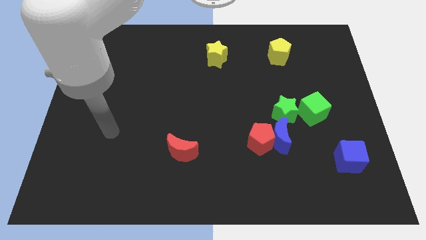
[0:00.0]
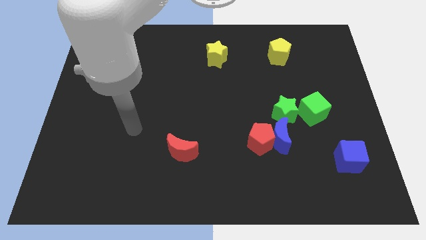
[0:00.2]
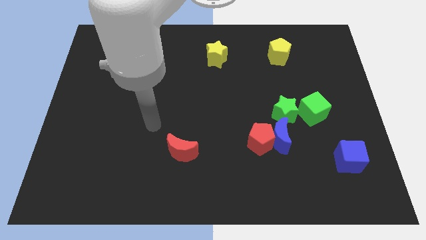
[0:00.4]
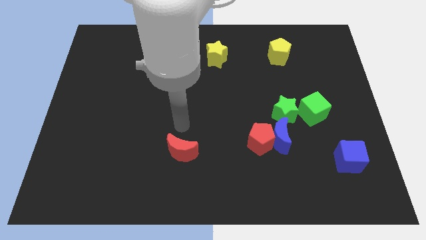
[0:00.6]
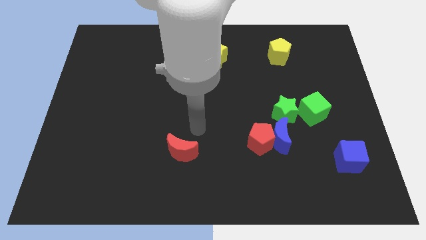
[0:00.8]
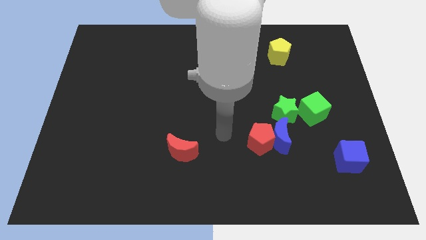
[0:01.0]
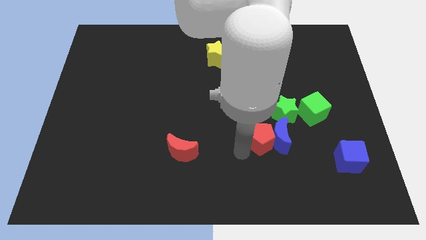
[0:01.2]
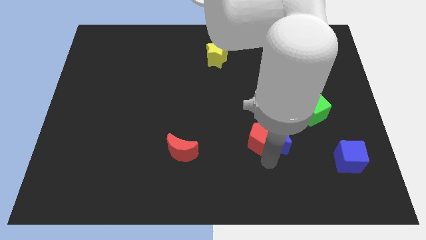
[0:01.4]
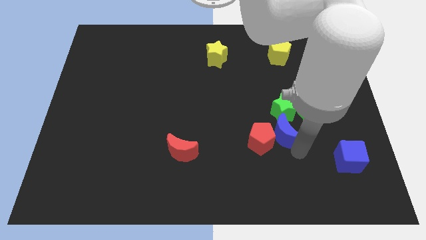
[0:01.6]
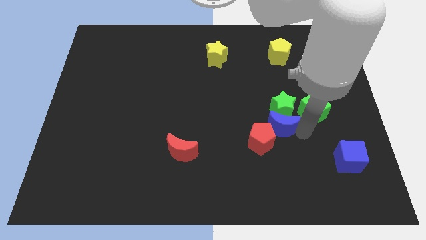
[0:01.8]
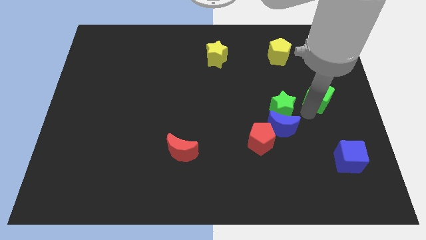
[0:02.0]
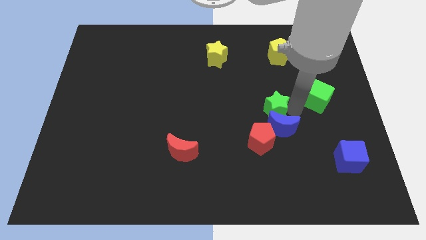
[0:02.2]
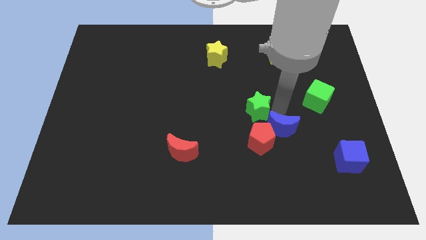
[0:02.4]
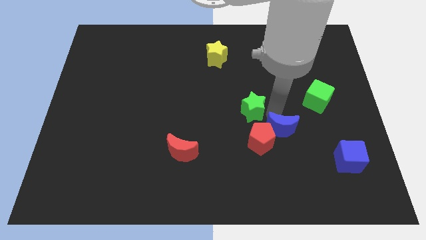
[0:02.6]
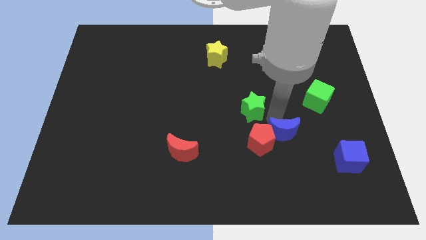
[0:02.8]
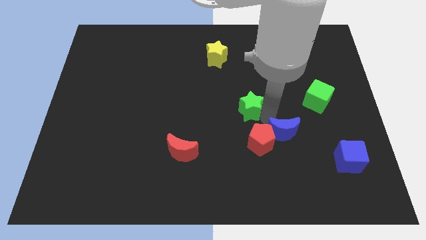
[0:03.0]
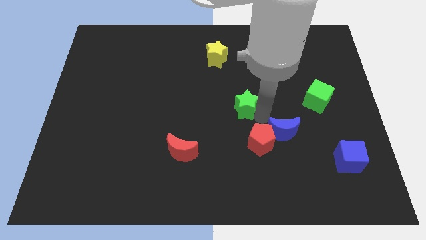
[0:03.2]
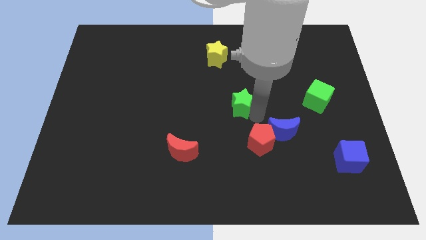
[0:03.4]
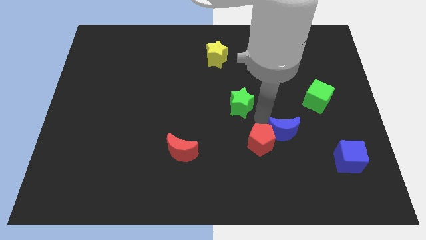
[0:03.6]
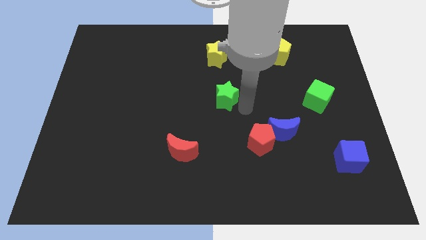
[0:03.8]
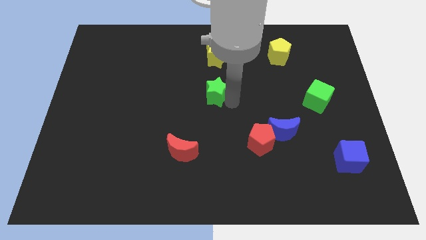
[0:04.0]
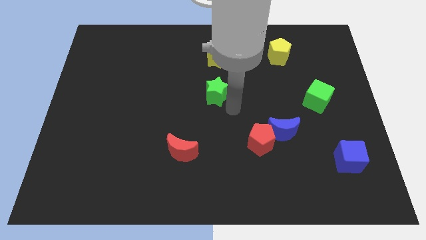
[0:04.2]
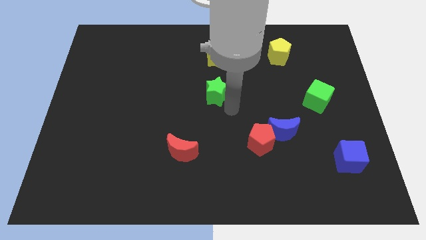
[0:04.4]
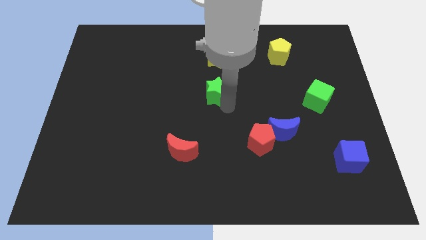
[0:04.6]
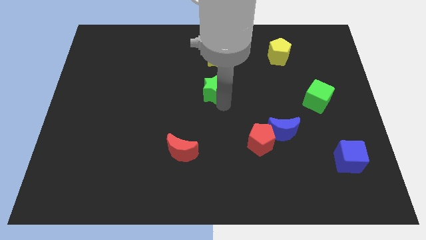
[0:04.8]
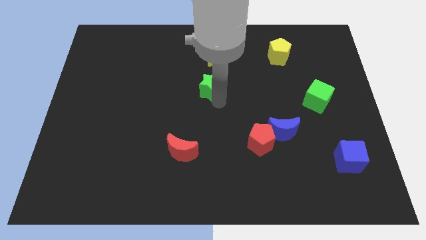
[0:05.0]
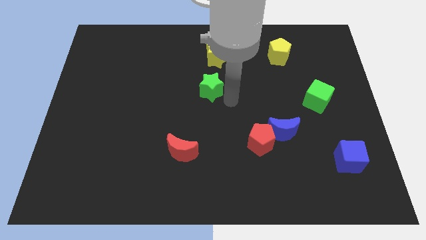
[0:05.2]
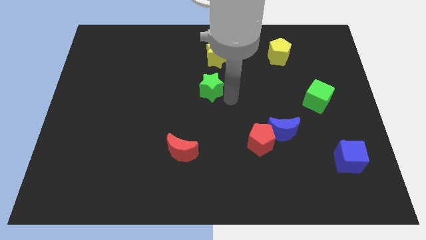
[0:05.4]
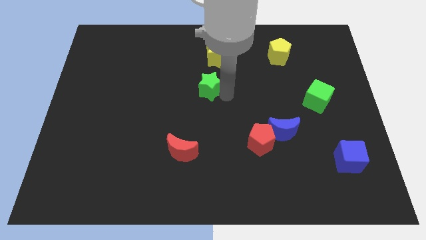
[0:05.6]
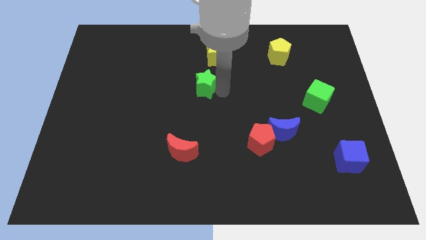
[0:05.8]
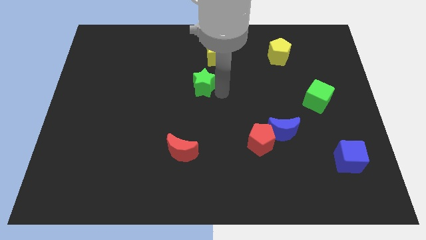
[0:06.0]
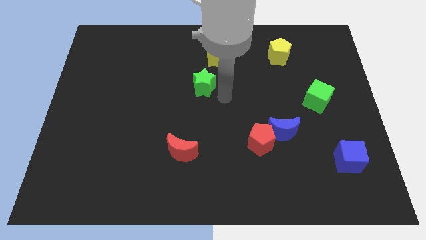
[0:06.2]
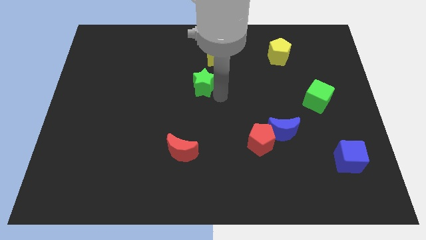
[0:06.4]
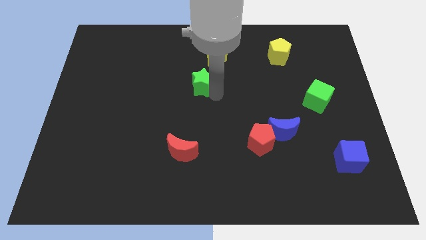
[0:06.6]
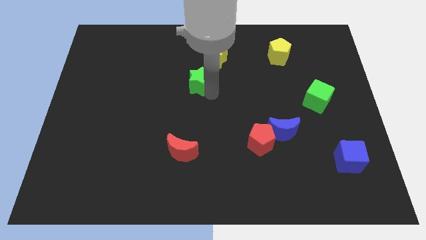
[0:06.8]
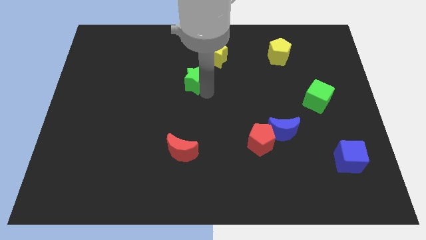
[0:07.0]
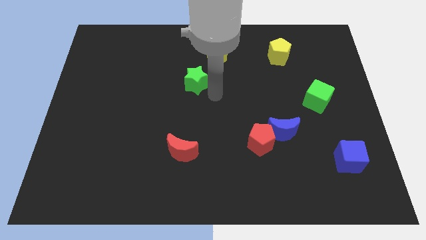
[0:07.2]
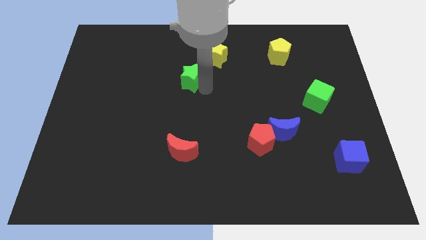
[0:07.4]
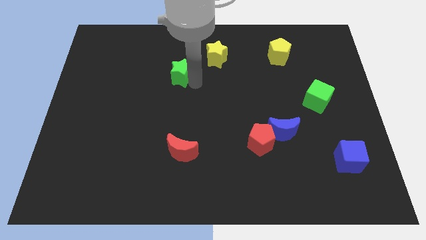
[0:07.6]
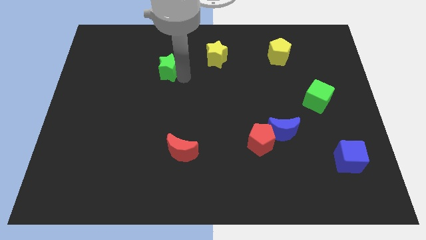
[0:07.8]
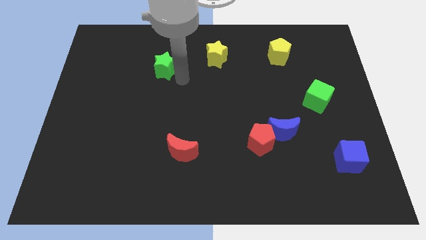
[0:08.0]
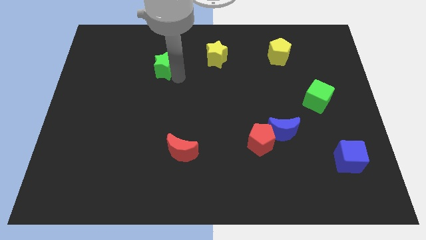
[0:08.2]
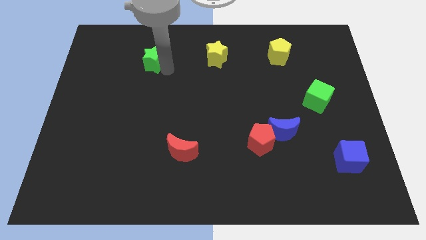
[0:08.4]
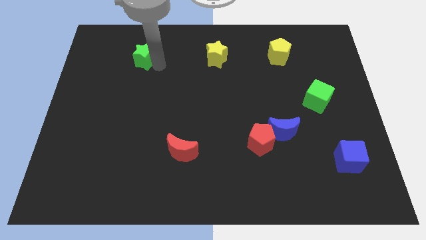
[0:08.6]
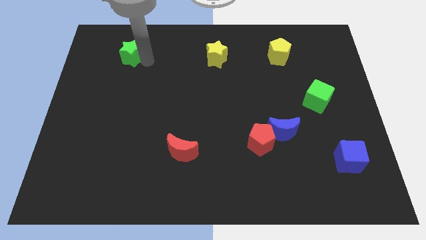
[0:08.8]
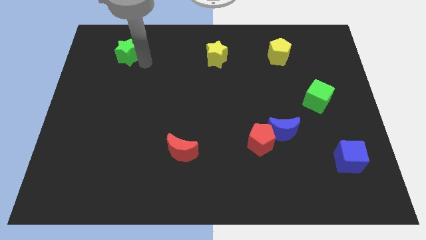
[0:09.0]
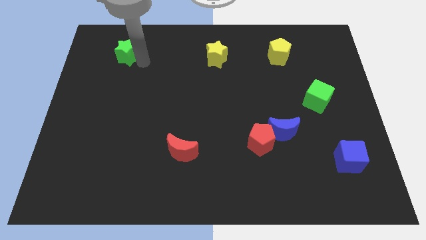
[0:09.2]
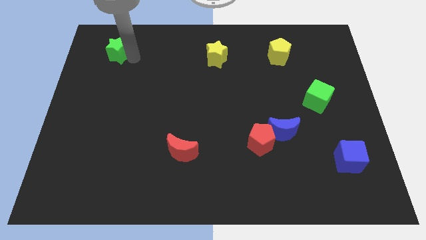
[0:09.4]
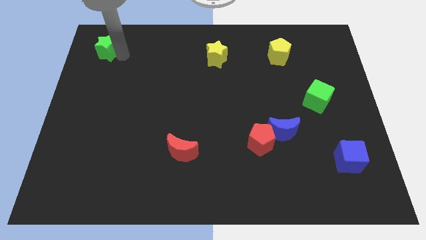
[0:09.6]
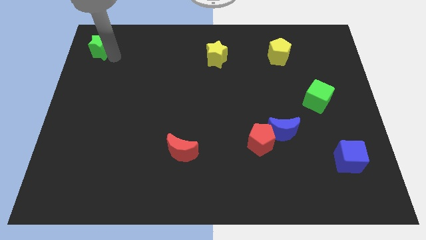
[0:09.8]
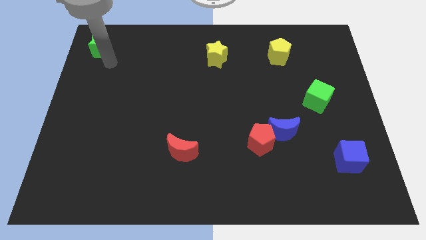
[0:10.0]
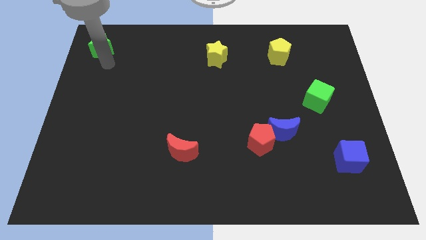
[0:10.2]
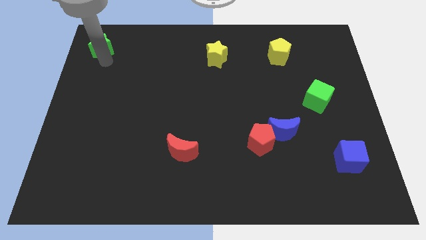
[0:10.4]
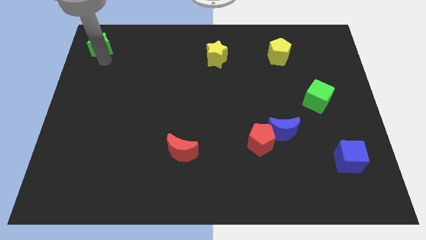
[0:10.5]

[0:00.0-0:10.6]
slide the green star to the top left of the board
